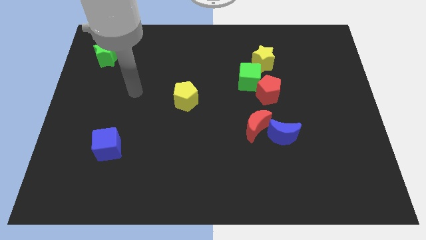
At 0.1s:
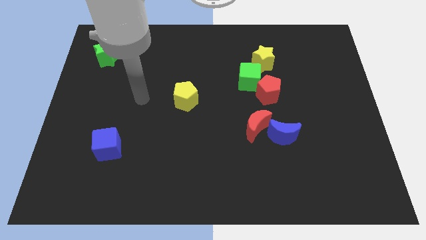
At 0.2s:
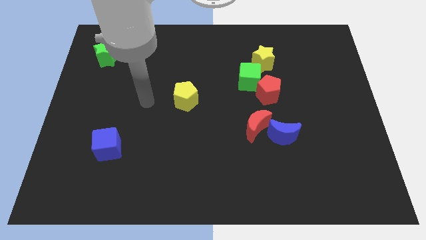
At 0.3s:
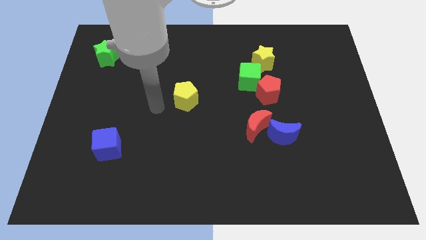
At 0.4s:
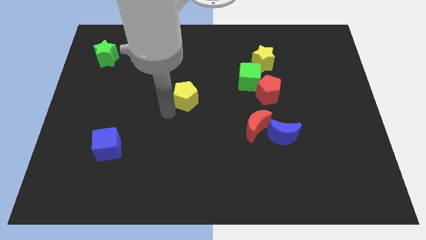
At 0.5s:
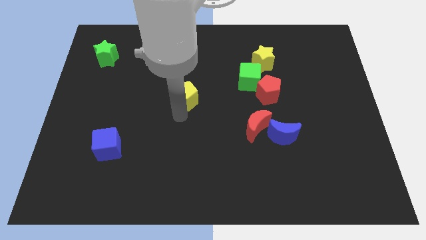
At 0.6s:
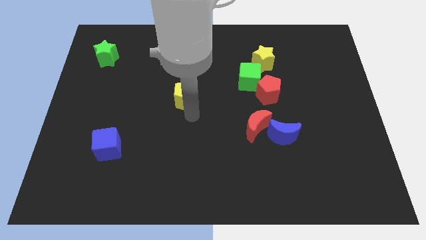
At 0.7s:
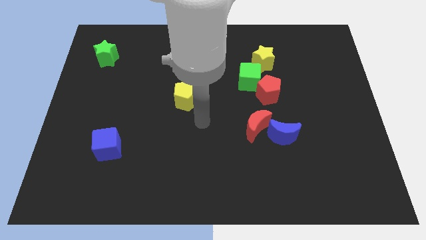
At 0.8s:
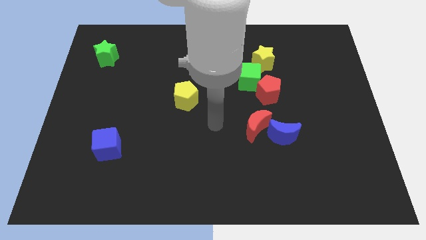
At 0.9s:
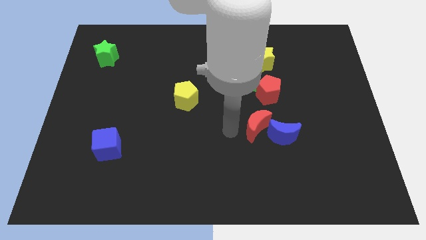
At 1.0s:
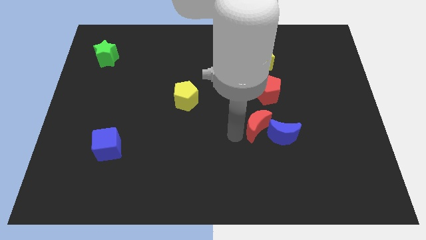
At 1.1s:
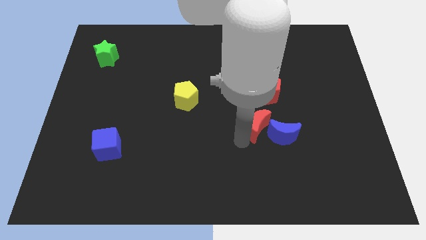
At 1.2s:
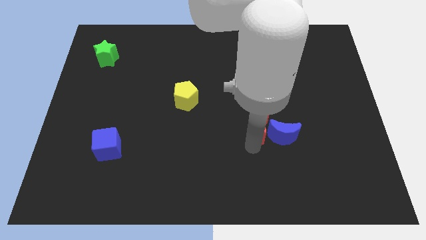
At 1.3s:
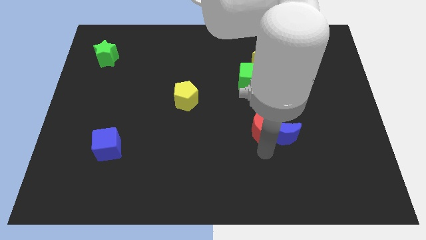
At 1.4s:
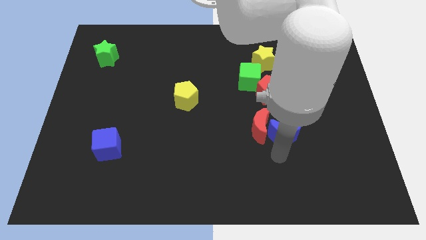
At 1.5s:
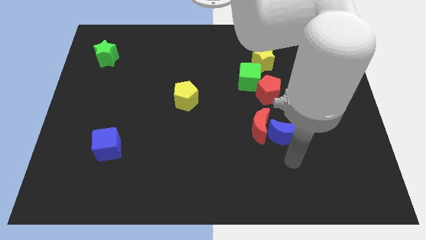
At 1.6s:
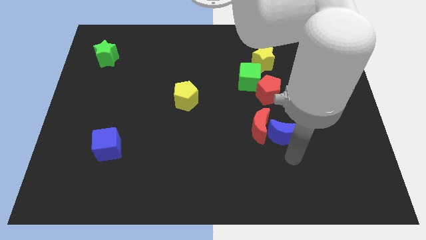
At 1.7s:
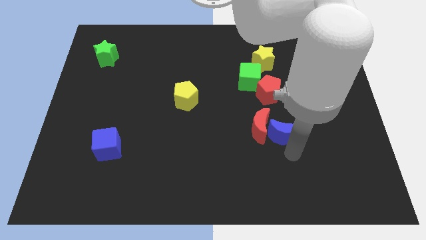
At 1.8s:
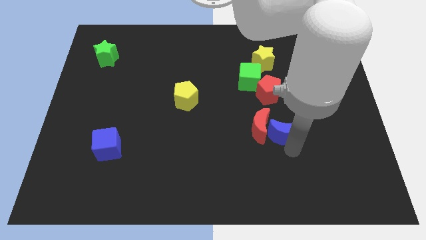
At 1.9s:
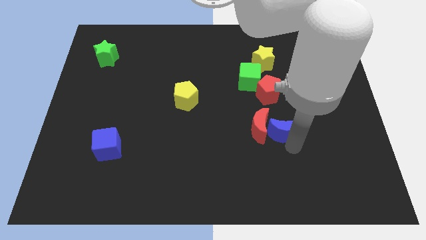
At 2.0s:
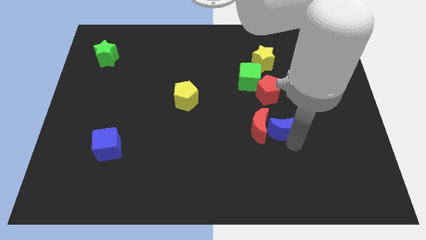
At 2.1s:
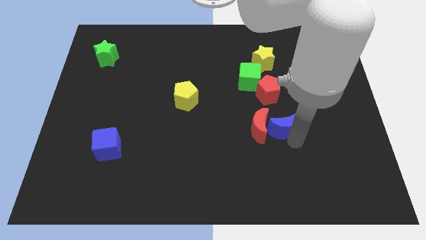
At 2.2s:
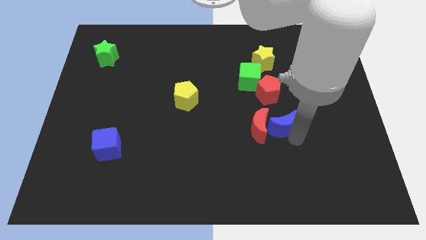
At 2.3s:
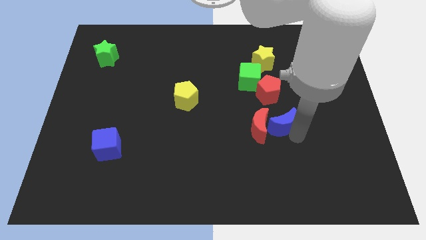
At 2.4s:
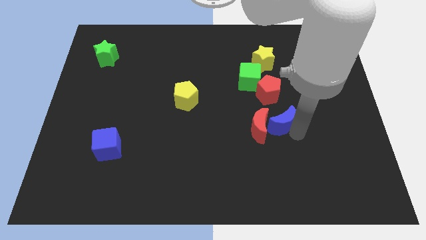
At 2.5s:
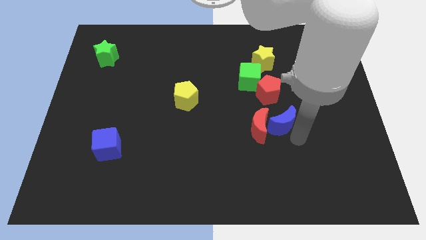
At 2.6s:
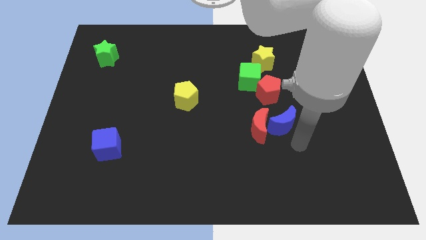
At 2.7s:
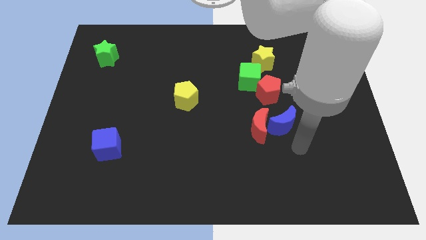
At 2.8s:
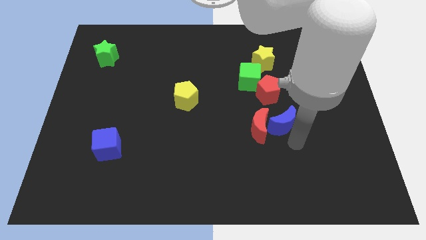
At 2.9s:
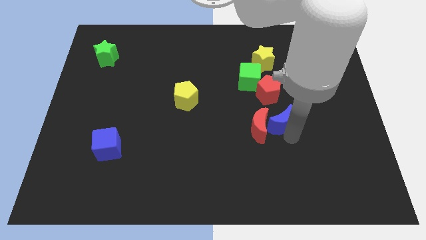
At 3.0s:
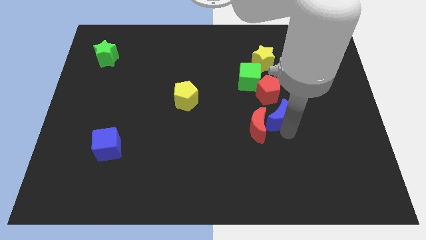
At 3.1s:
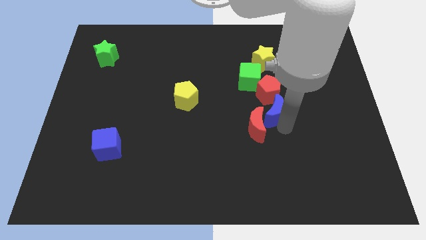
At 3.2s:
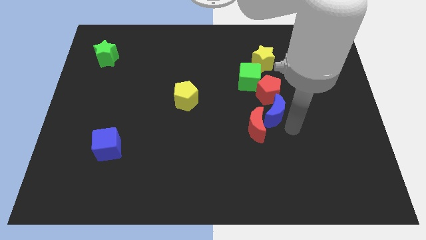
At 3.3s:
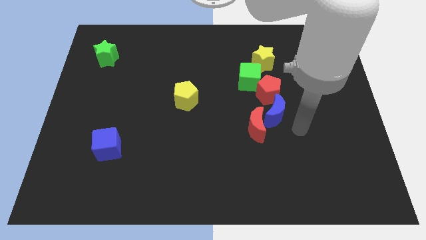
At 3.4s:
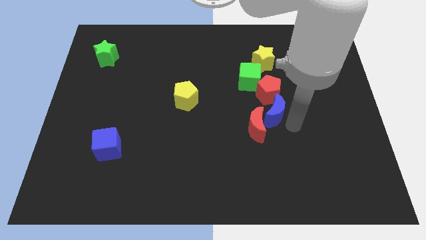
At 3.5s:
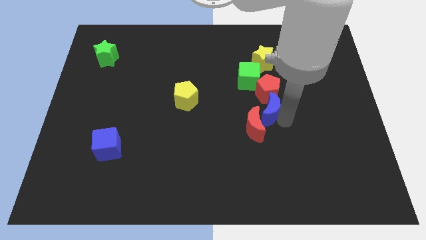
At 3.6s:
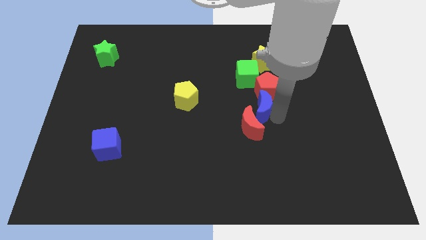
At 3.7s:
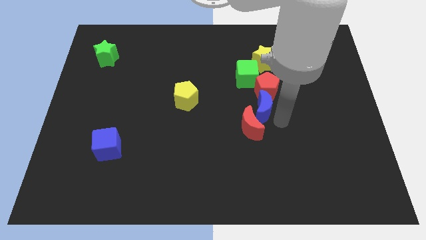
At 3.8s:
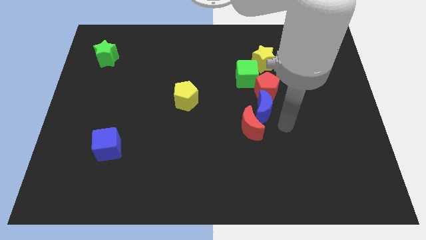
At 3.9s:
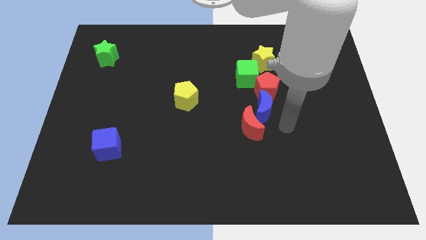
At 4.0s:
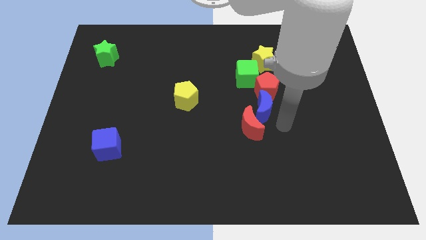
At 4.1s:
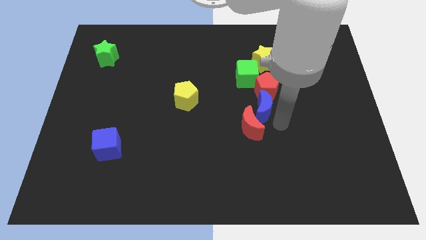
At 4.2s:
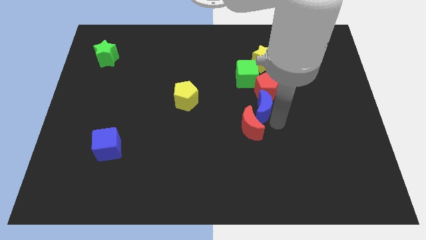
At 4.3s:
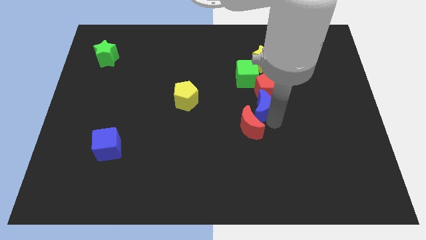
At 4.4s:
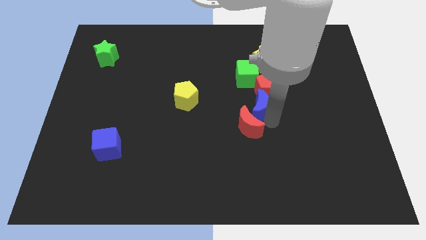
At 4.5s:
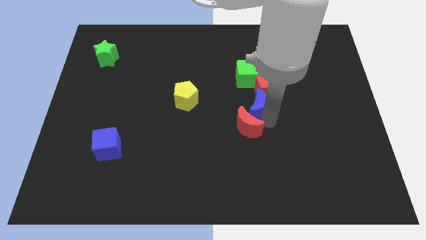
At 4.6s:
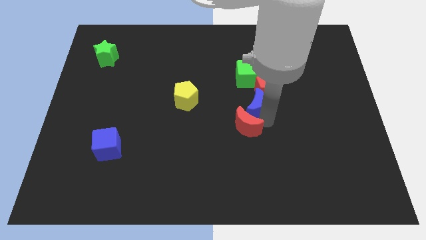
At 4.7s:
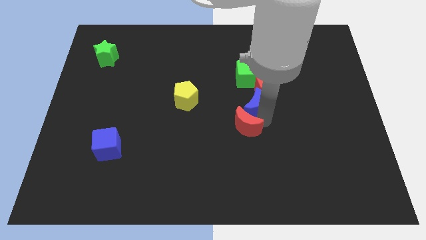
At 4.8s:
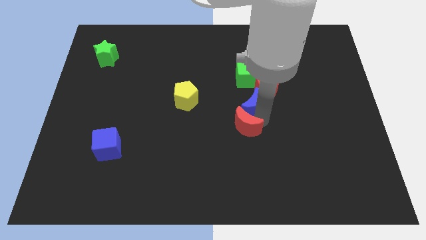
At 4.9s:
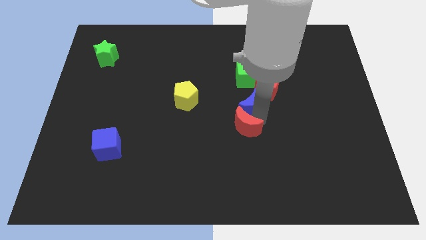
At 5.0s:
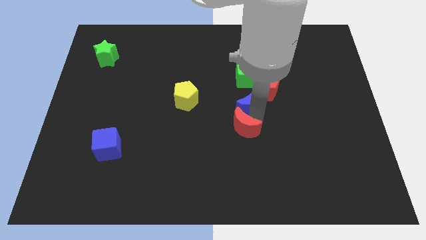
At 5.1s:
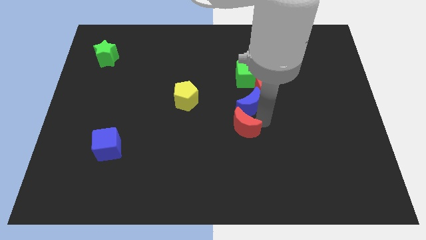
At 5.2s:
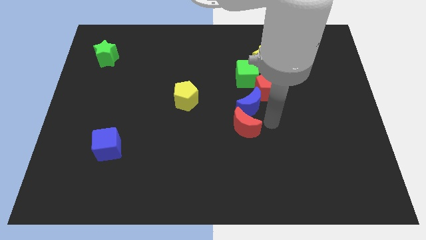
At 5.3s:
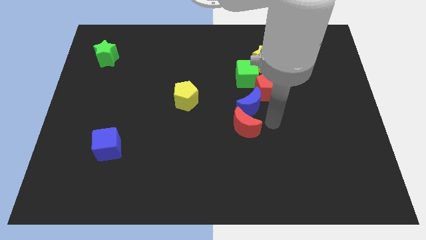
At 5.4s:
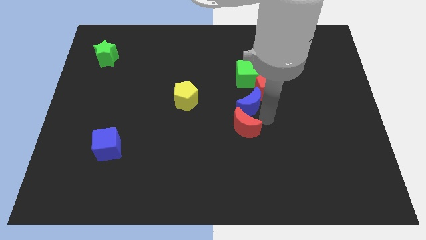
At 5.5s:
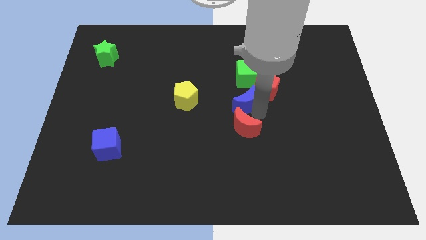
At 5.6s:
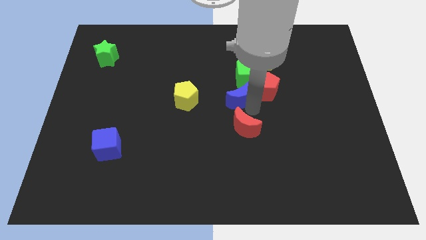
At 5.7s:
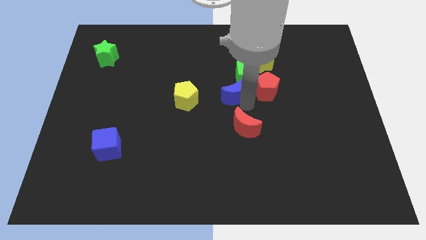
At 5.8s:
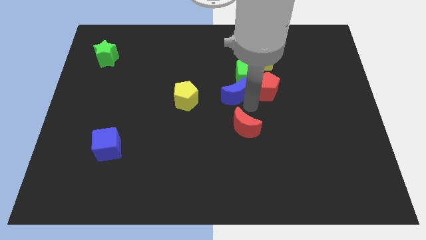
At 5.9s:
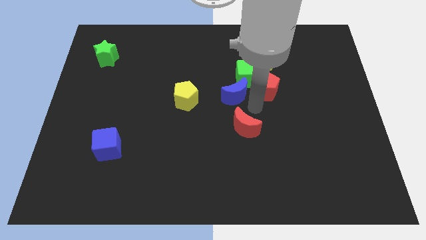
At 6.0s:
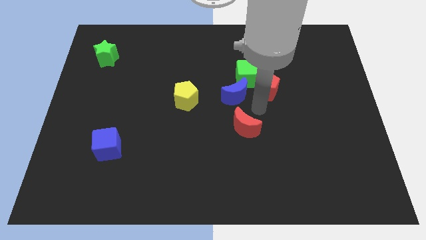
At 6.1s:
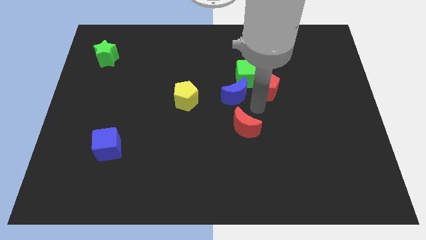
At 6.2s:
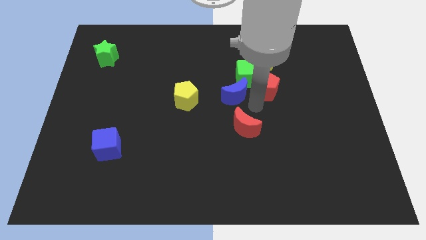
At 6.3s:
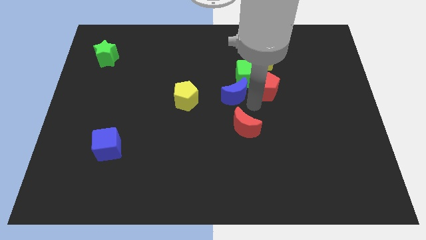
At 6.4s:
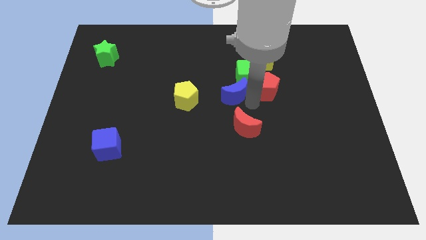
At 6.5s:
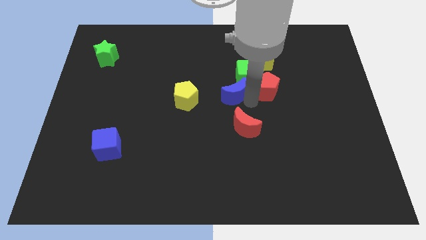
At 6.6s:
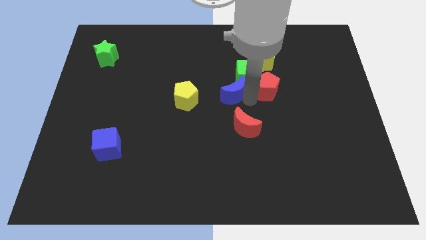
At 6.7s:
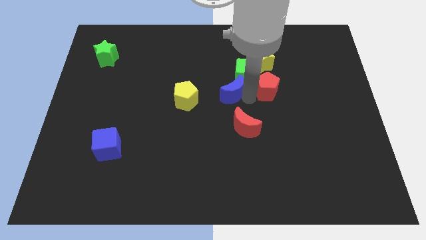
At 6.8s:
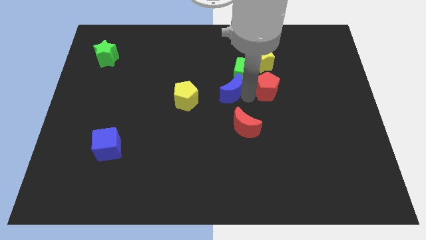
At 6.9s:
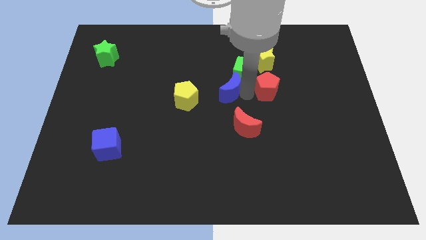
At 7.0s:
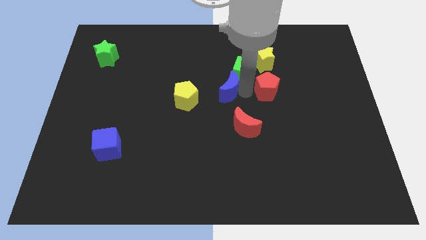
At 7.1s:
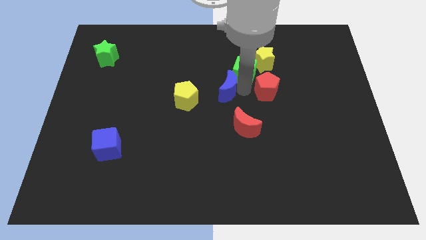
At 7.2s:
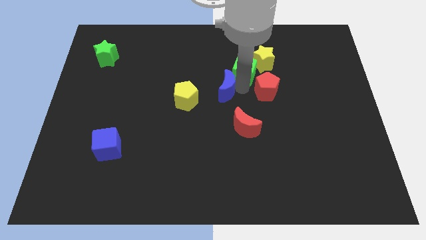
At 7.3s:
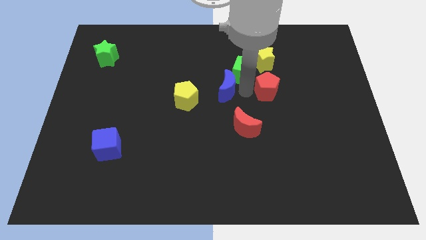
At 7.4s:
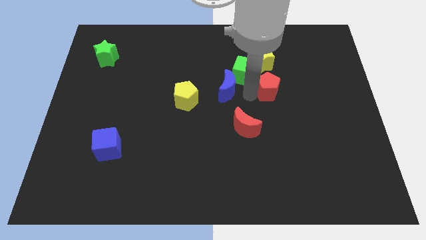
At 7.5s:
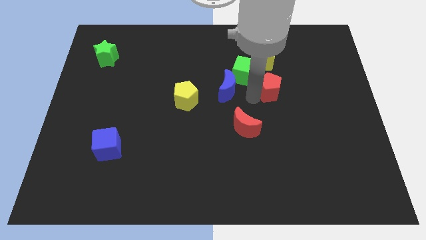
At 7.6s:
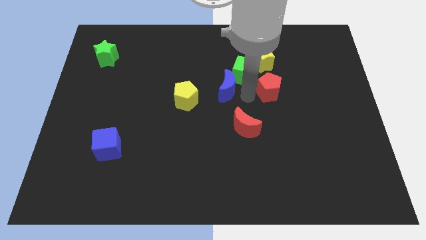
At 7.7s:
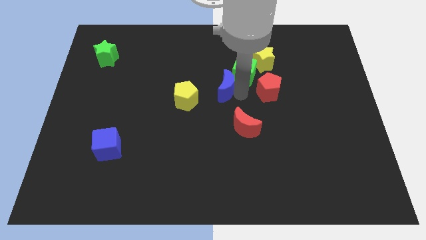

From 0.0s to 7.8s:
move the blue moon to the top right of the yellow pentagon
